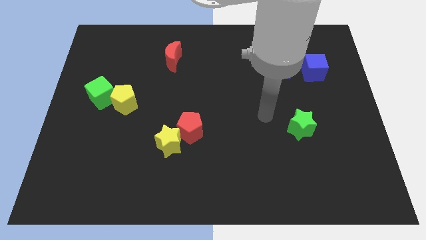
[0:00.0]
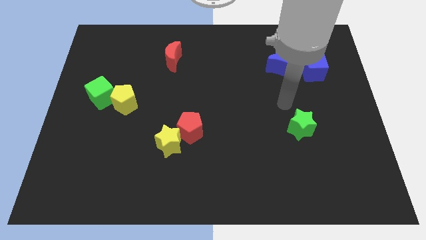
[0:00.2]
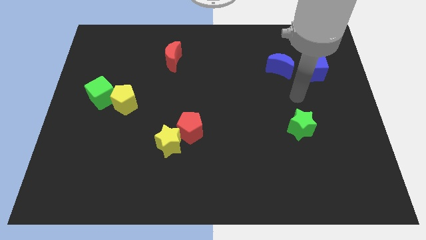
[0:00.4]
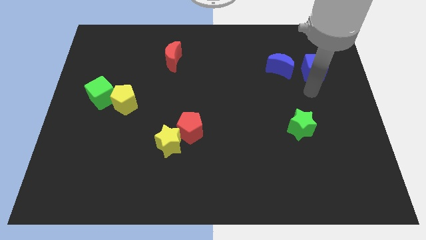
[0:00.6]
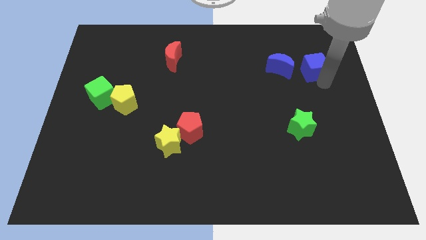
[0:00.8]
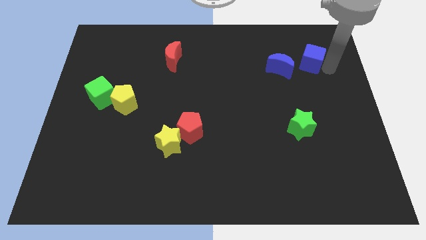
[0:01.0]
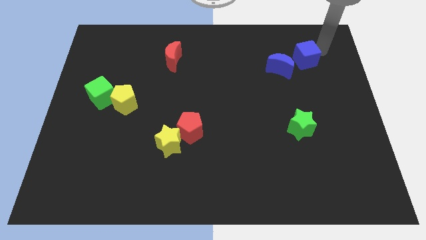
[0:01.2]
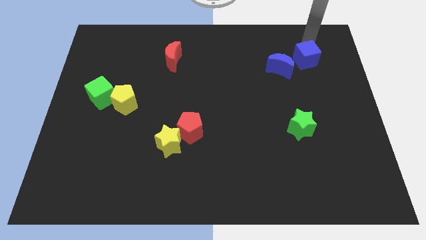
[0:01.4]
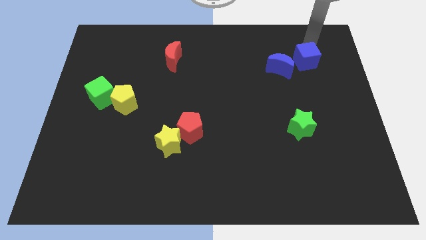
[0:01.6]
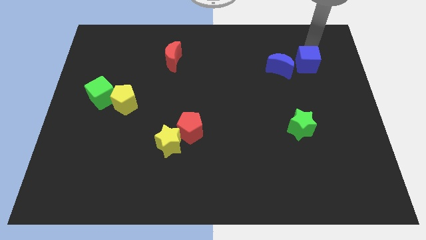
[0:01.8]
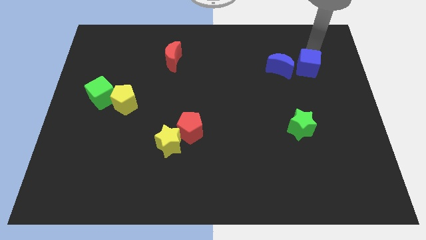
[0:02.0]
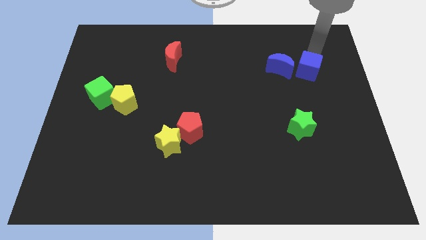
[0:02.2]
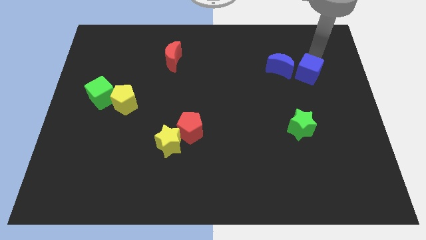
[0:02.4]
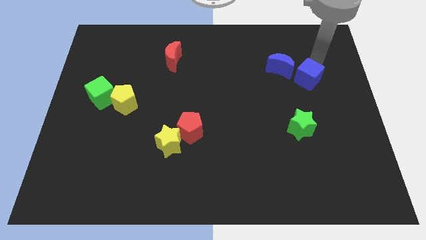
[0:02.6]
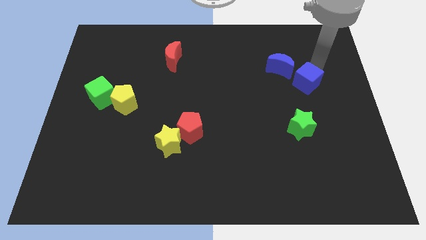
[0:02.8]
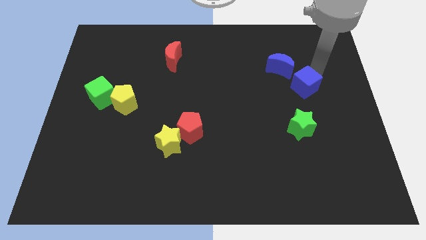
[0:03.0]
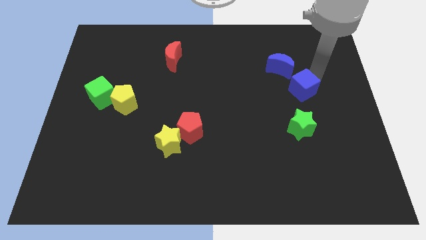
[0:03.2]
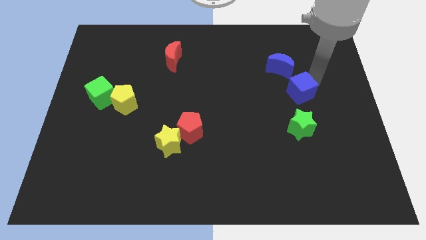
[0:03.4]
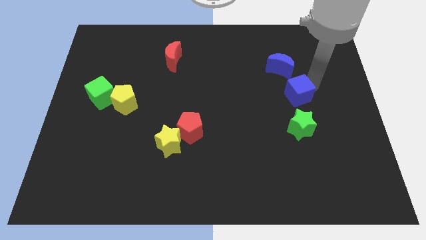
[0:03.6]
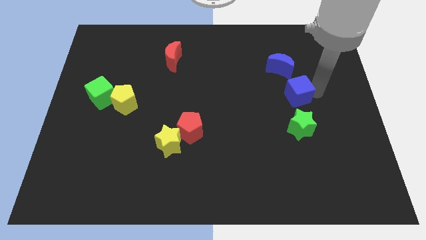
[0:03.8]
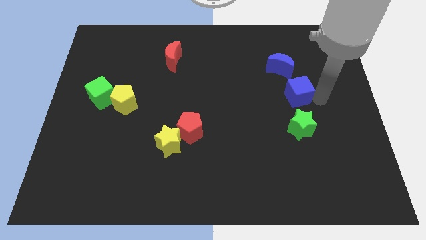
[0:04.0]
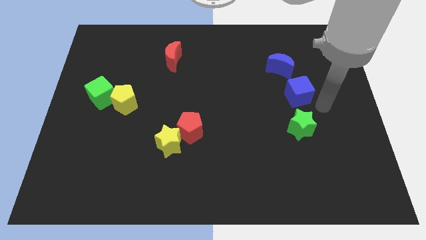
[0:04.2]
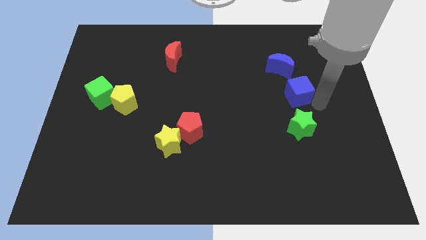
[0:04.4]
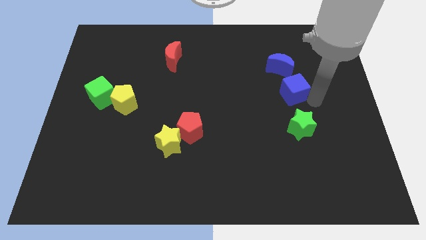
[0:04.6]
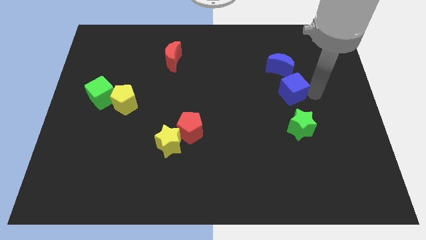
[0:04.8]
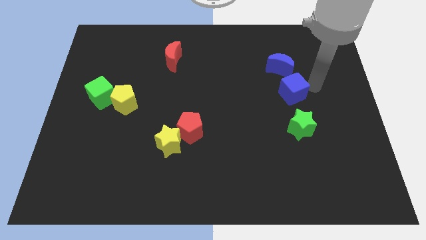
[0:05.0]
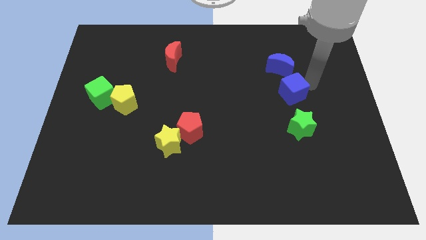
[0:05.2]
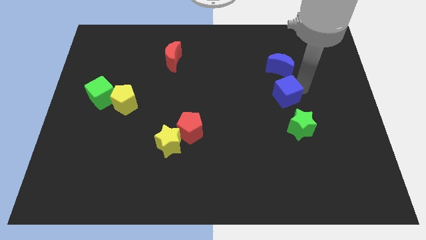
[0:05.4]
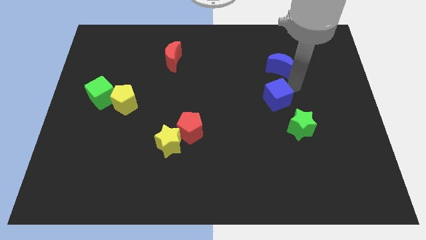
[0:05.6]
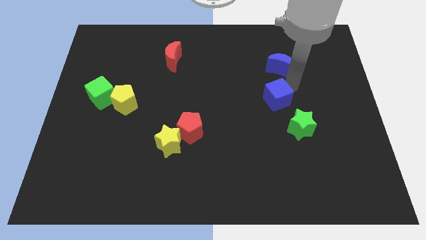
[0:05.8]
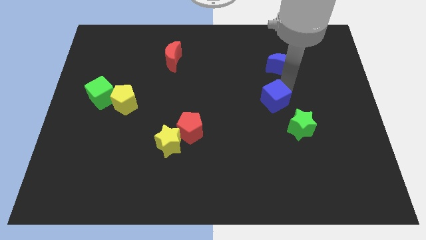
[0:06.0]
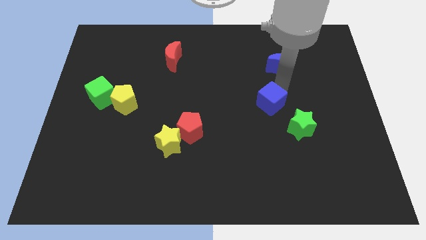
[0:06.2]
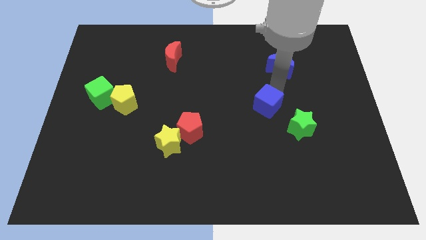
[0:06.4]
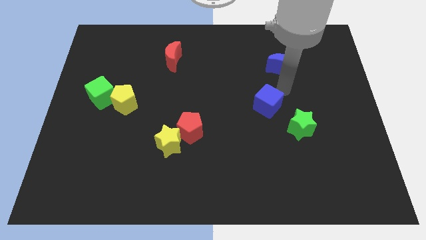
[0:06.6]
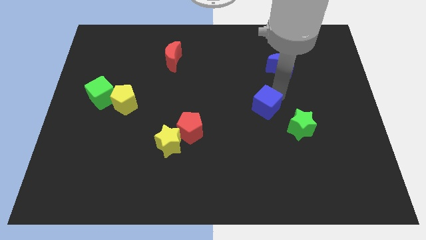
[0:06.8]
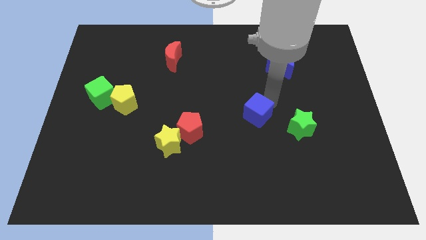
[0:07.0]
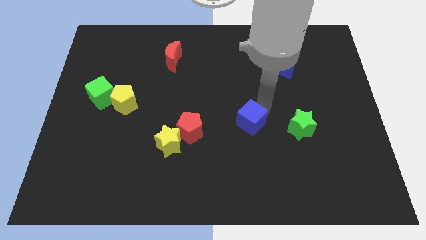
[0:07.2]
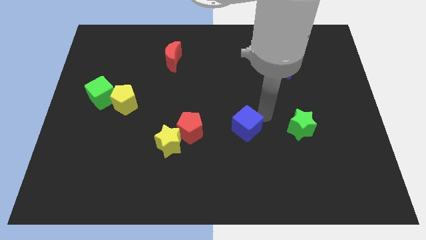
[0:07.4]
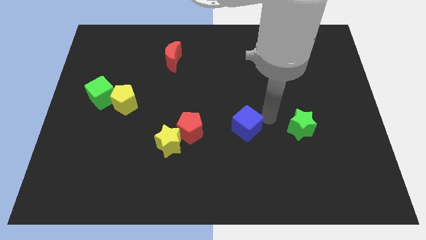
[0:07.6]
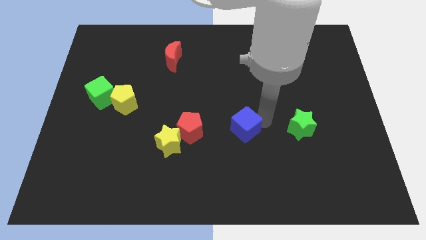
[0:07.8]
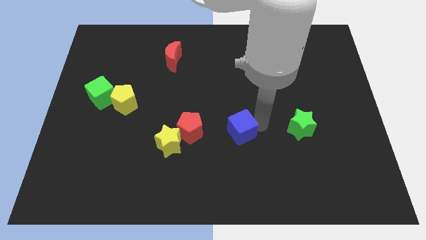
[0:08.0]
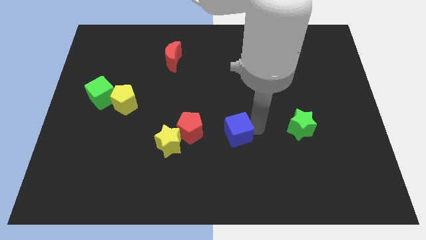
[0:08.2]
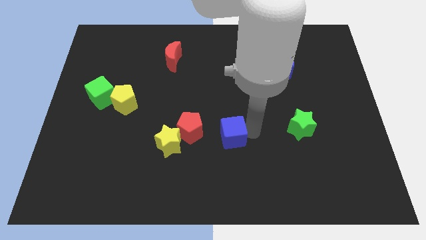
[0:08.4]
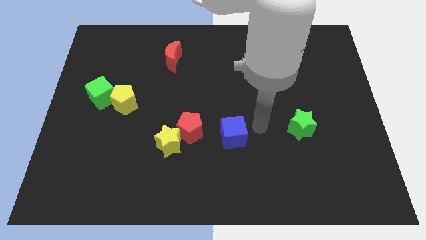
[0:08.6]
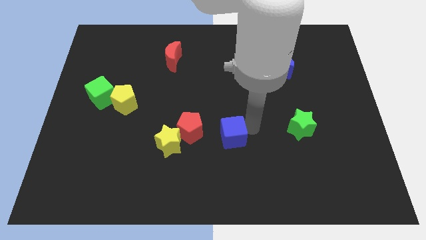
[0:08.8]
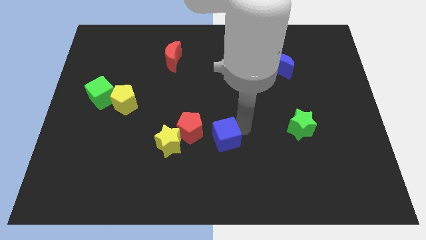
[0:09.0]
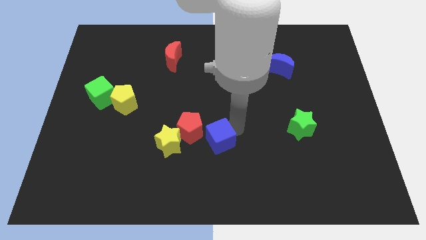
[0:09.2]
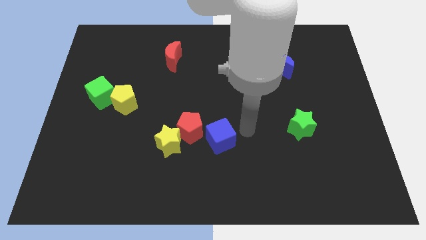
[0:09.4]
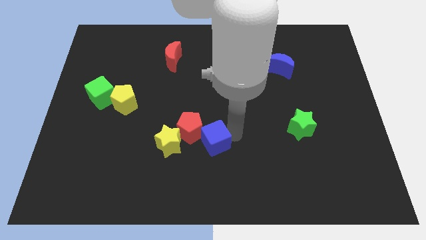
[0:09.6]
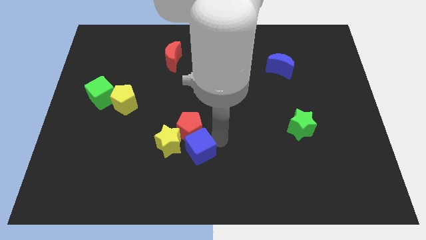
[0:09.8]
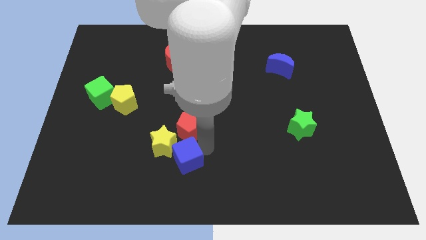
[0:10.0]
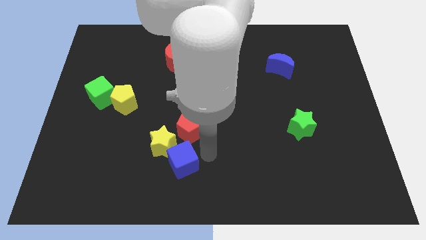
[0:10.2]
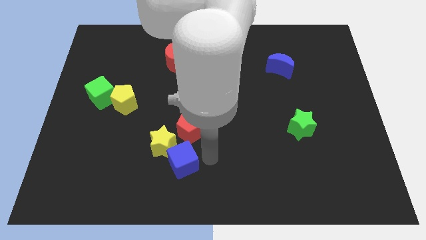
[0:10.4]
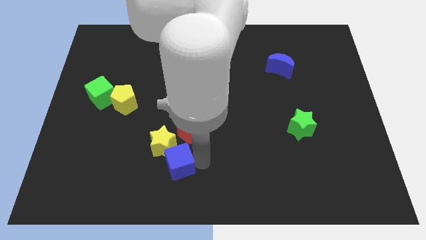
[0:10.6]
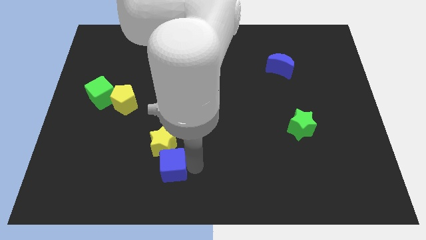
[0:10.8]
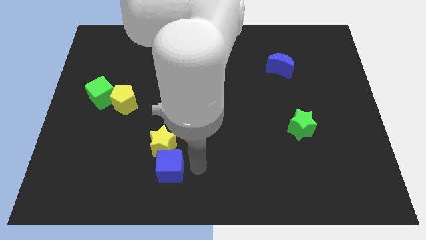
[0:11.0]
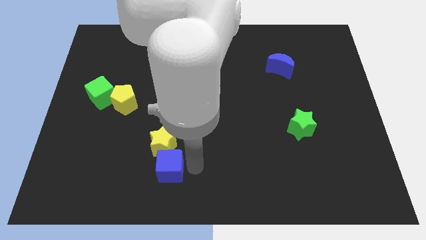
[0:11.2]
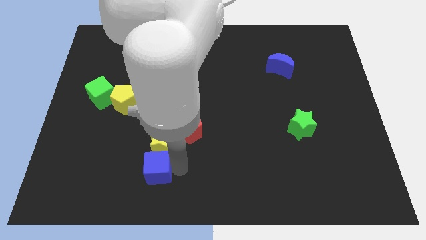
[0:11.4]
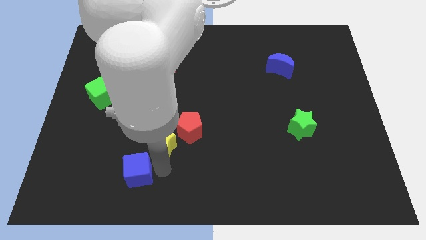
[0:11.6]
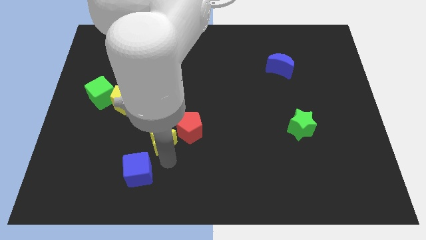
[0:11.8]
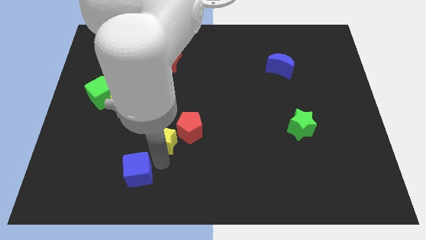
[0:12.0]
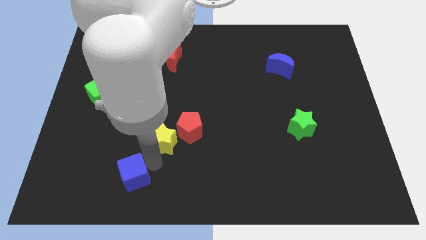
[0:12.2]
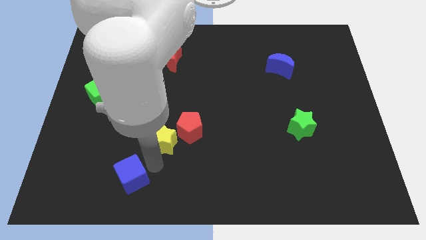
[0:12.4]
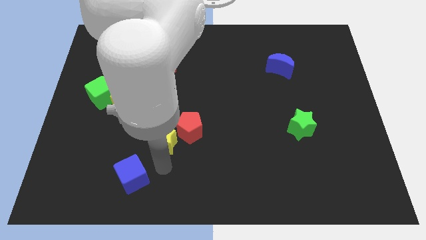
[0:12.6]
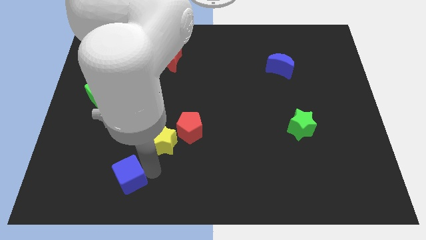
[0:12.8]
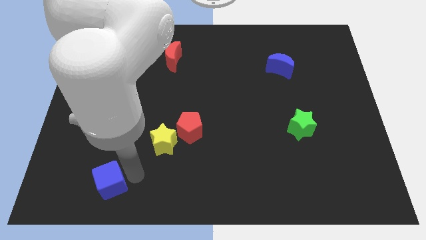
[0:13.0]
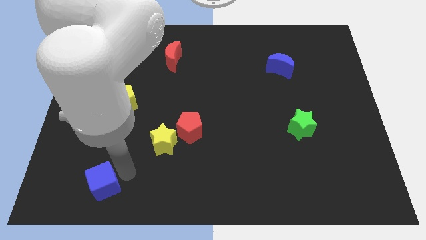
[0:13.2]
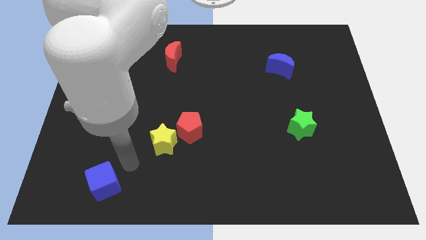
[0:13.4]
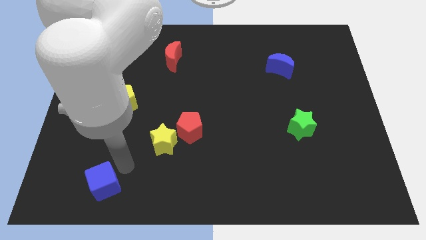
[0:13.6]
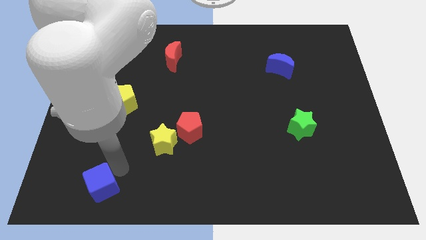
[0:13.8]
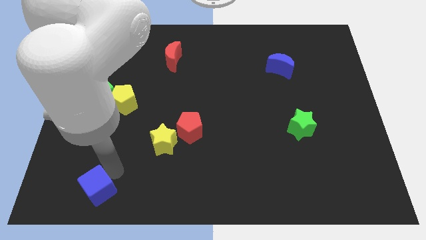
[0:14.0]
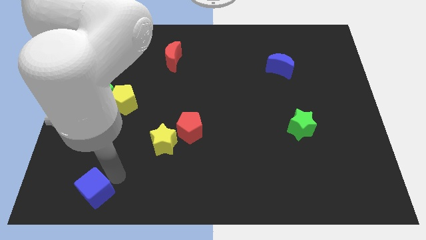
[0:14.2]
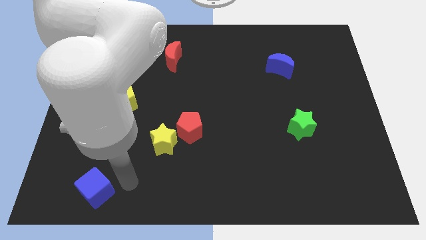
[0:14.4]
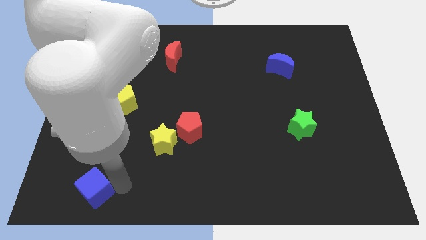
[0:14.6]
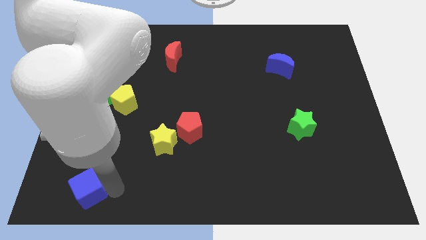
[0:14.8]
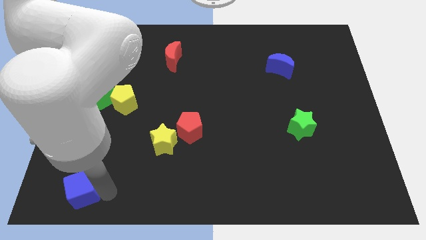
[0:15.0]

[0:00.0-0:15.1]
push the blue cube to the bottom left
